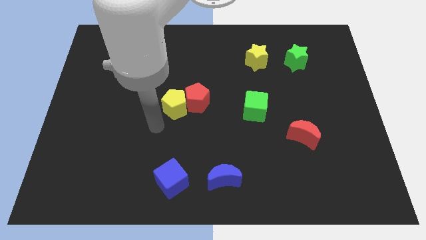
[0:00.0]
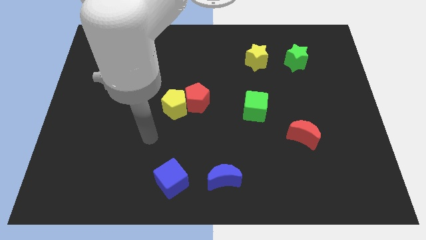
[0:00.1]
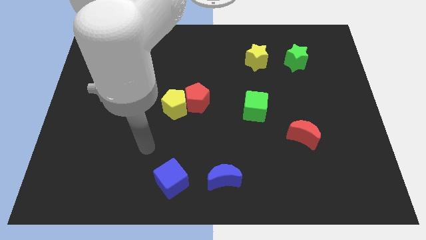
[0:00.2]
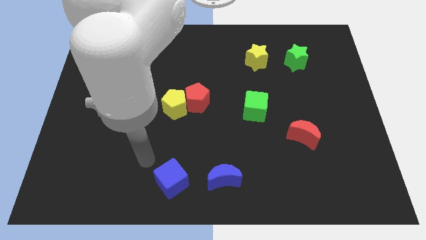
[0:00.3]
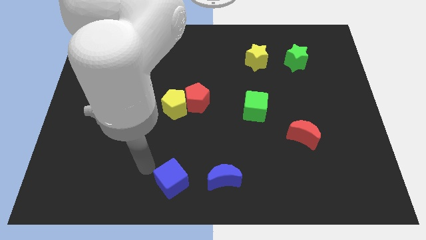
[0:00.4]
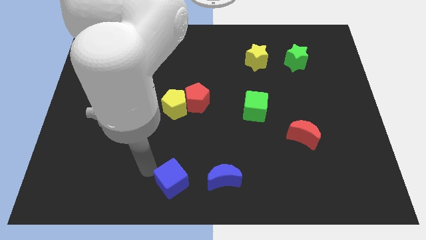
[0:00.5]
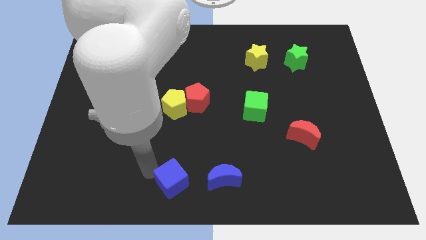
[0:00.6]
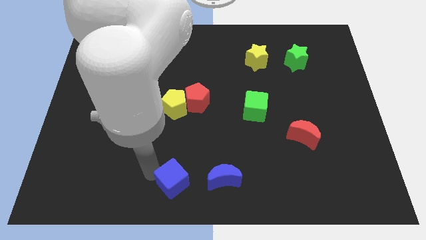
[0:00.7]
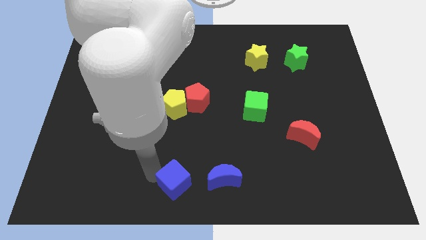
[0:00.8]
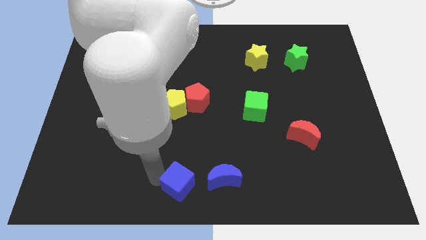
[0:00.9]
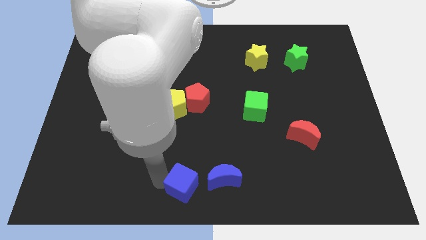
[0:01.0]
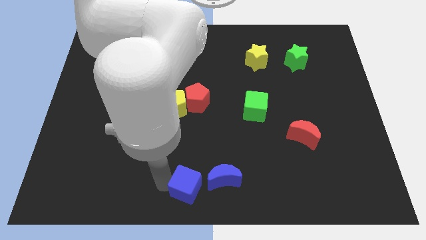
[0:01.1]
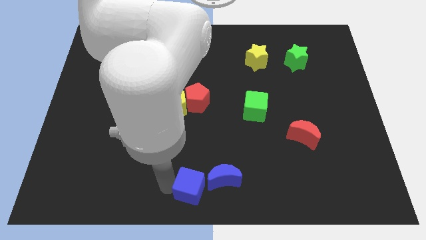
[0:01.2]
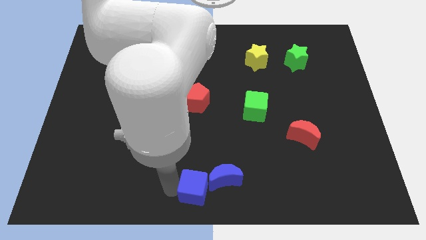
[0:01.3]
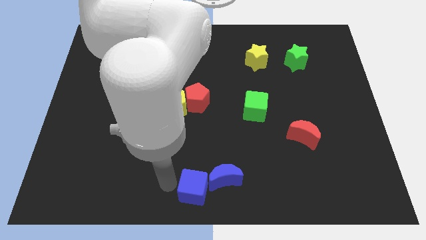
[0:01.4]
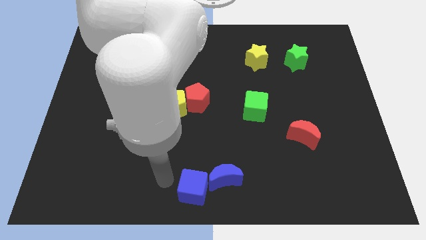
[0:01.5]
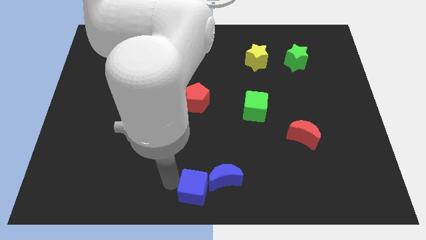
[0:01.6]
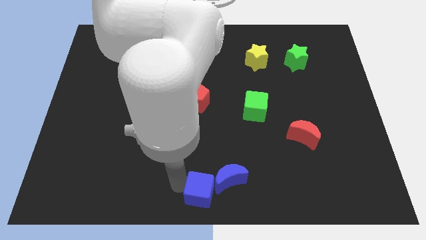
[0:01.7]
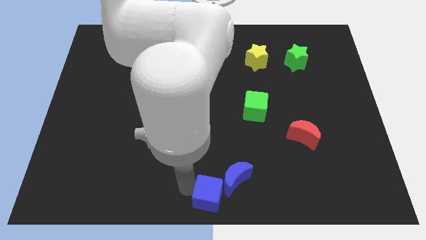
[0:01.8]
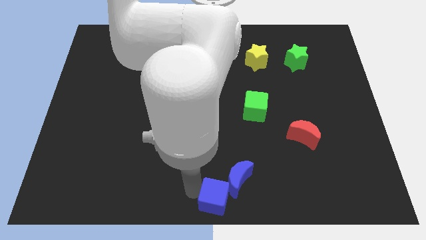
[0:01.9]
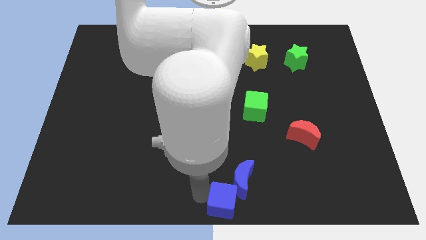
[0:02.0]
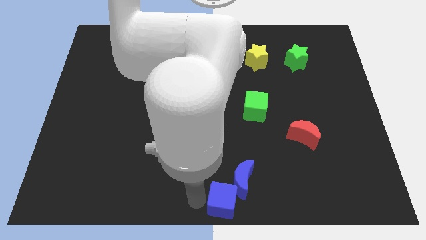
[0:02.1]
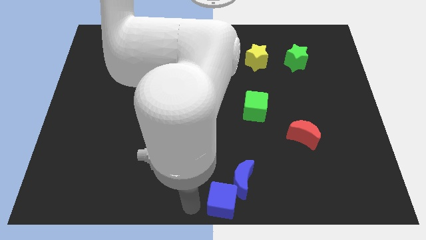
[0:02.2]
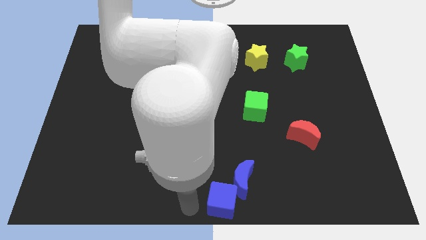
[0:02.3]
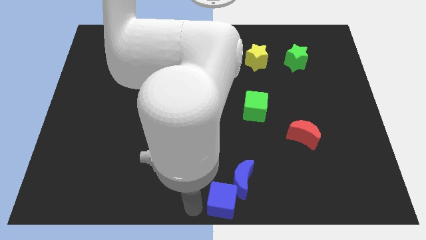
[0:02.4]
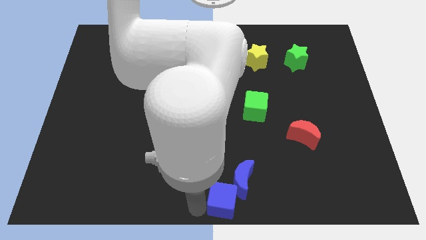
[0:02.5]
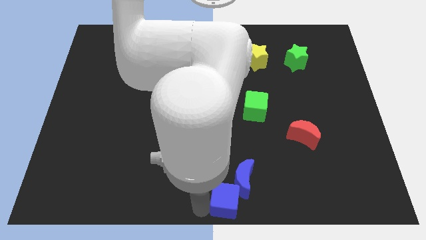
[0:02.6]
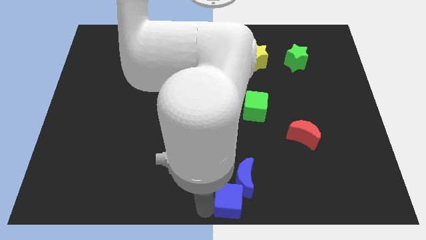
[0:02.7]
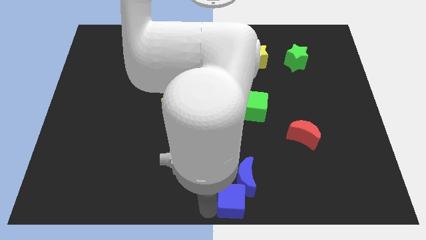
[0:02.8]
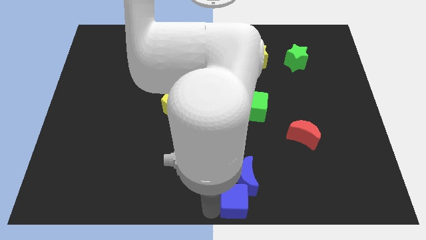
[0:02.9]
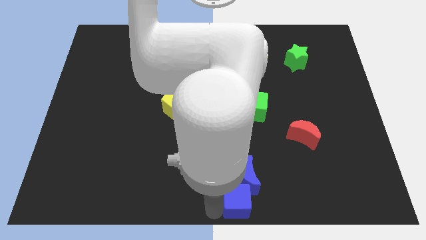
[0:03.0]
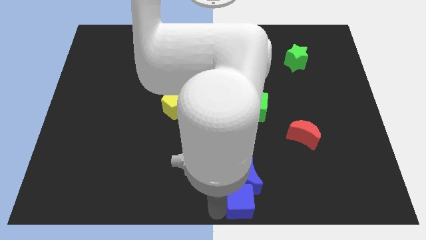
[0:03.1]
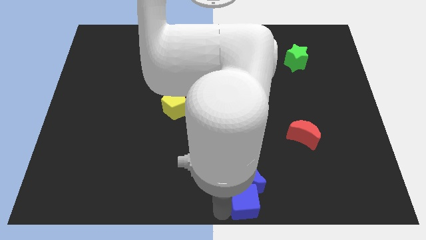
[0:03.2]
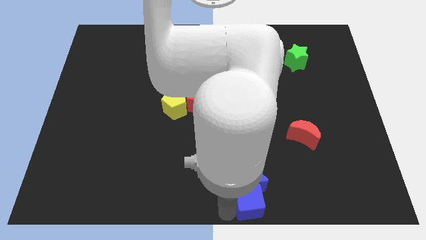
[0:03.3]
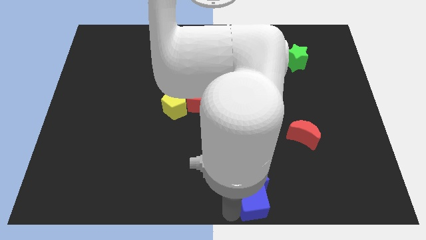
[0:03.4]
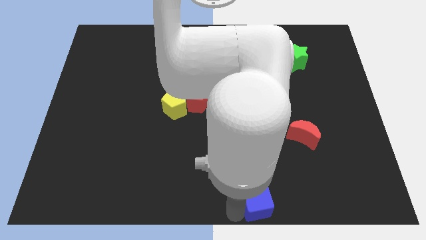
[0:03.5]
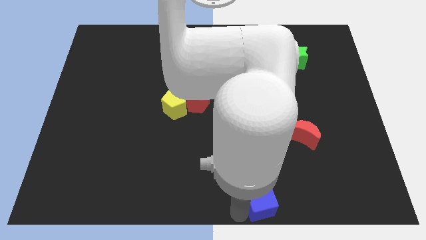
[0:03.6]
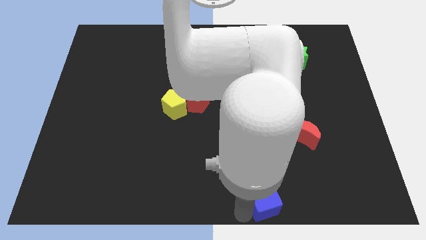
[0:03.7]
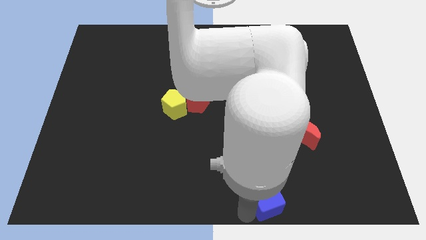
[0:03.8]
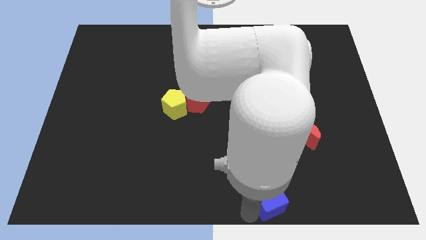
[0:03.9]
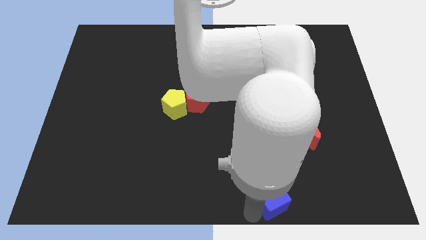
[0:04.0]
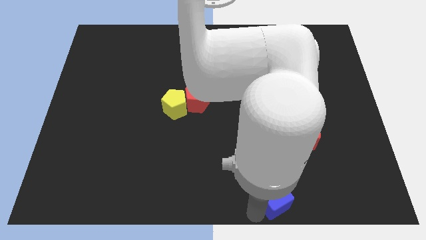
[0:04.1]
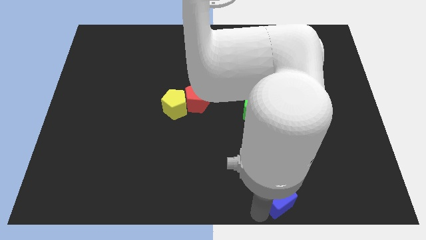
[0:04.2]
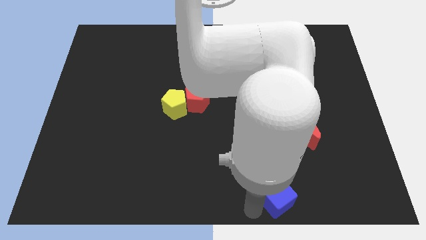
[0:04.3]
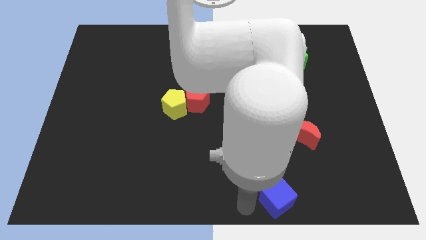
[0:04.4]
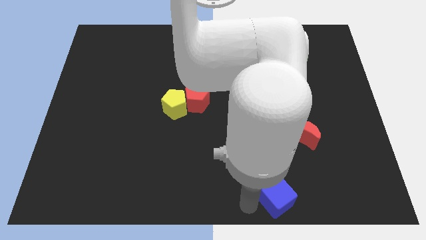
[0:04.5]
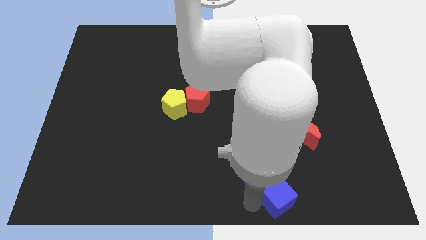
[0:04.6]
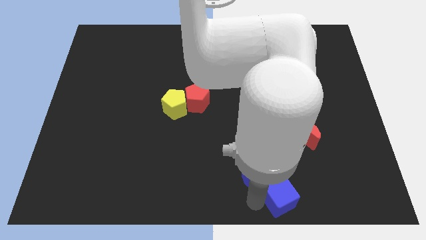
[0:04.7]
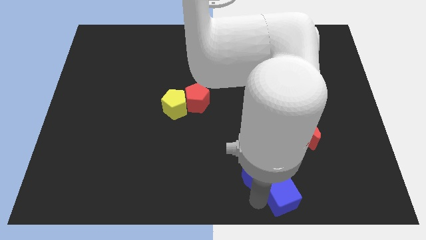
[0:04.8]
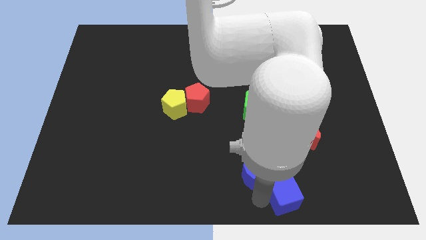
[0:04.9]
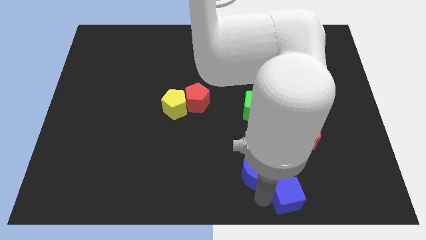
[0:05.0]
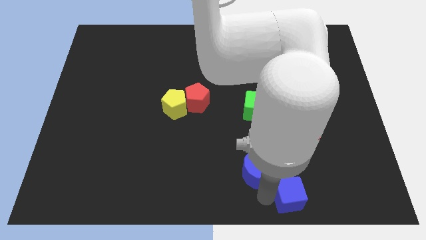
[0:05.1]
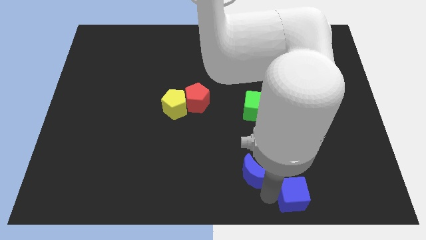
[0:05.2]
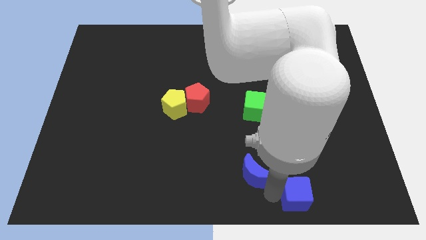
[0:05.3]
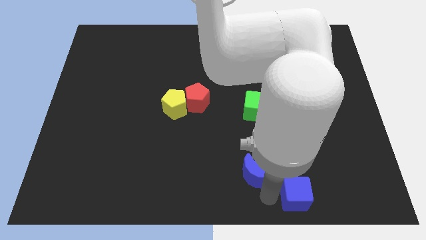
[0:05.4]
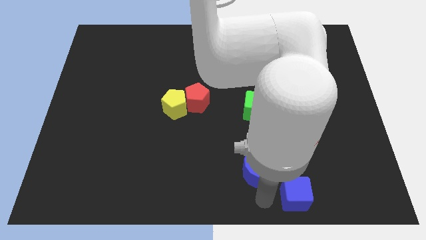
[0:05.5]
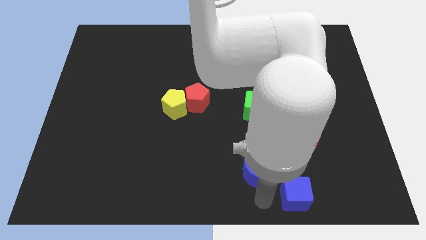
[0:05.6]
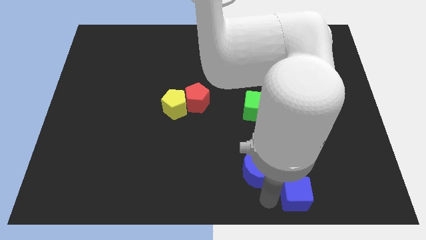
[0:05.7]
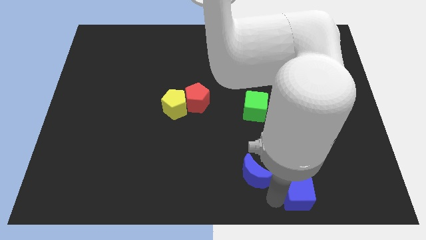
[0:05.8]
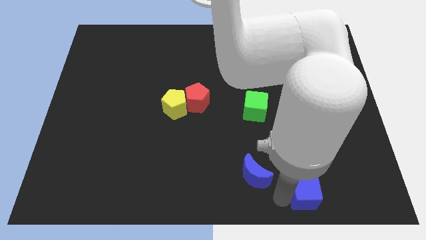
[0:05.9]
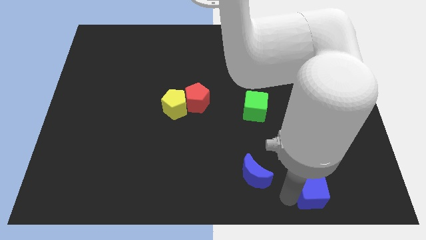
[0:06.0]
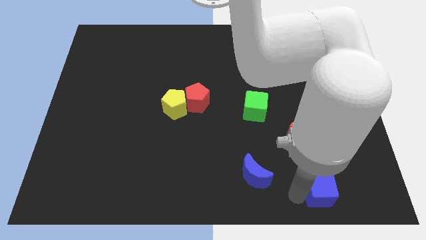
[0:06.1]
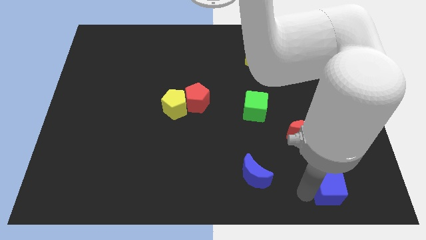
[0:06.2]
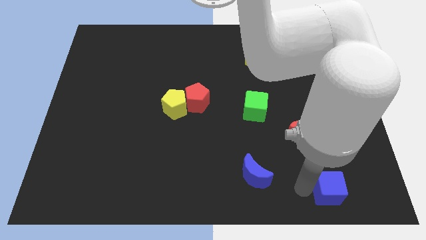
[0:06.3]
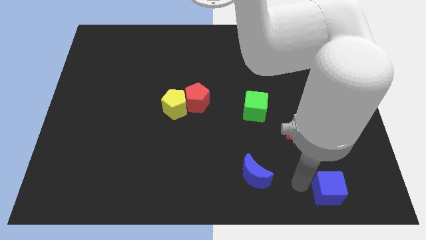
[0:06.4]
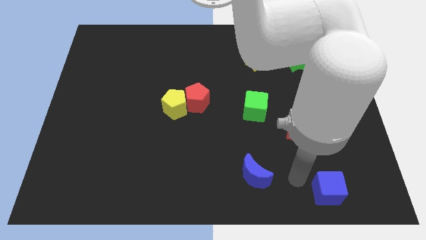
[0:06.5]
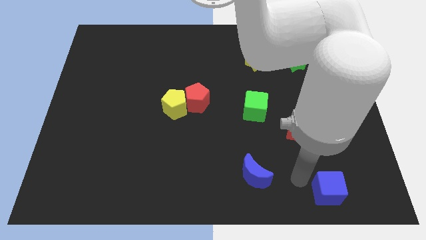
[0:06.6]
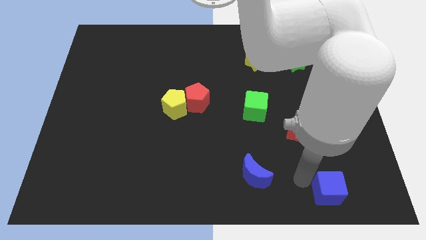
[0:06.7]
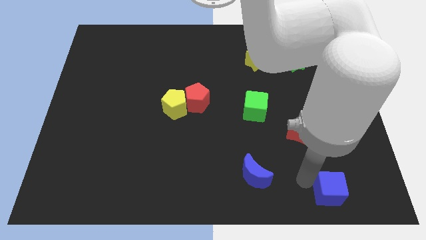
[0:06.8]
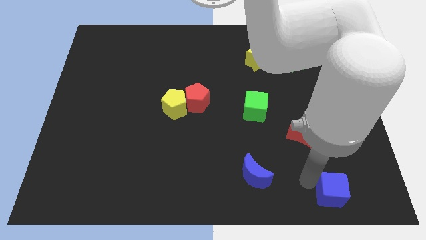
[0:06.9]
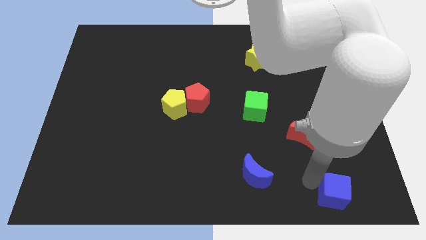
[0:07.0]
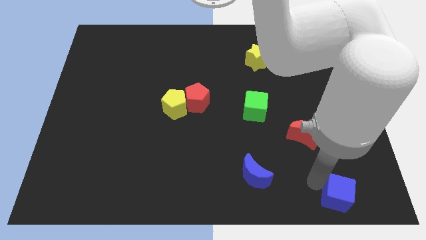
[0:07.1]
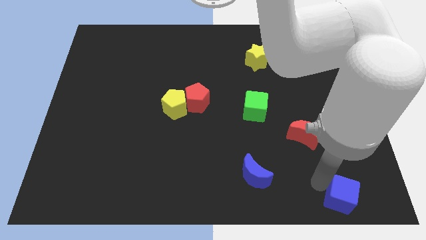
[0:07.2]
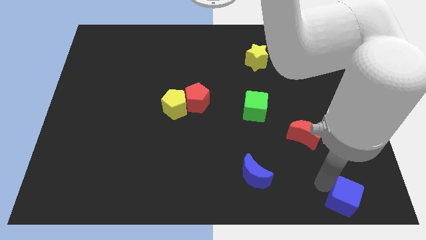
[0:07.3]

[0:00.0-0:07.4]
move the blue cube to the bottom right of the board
